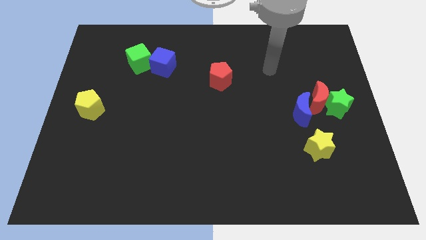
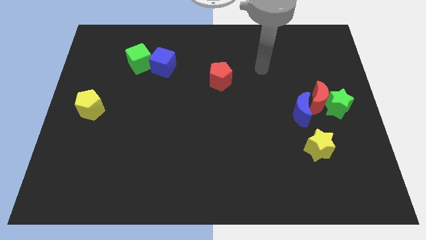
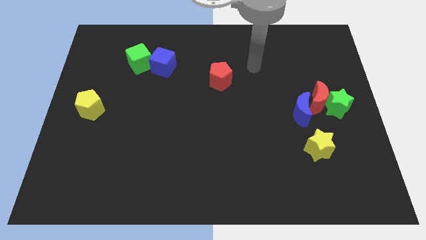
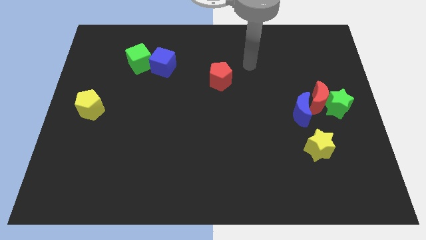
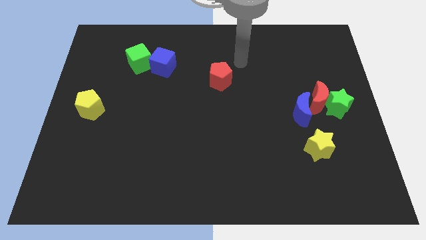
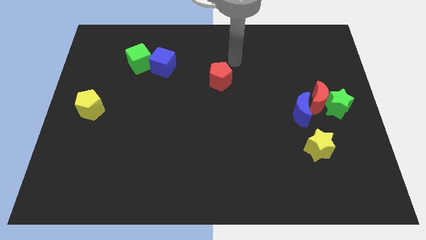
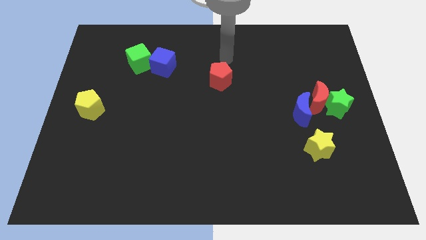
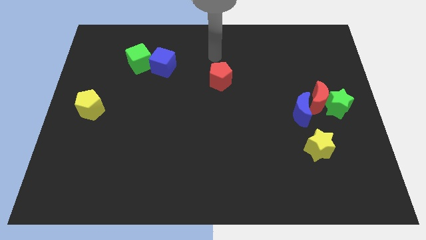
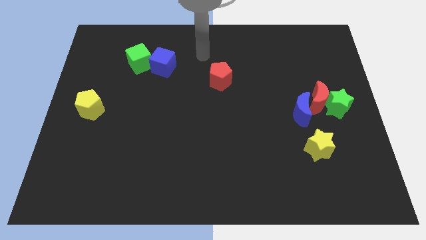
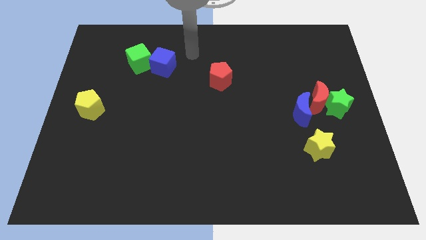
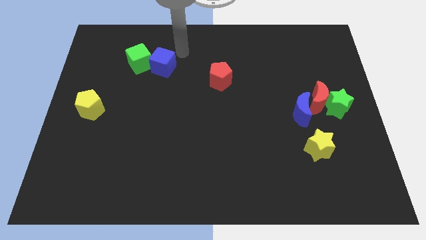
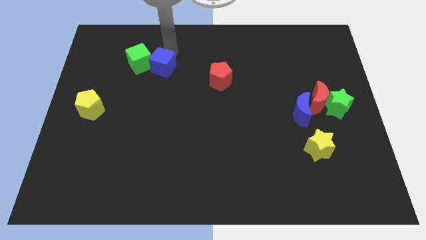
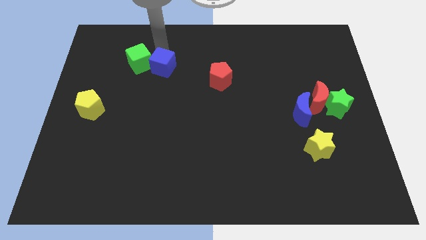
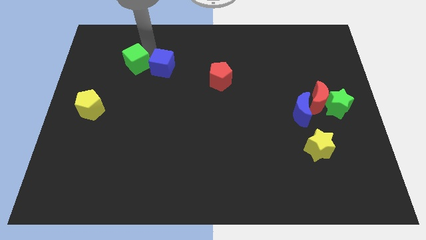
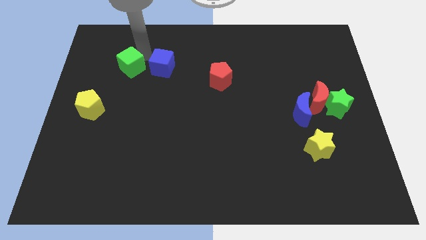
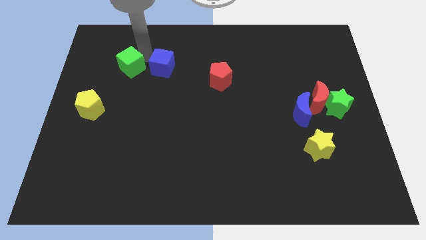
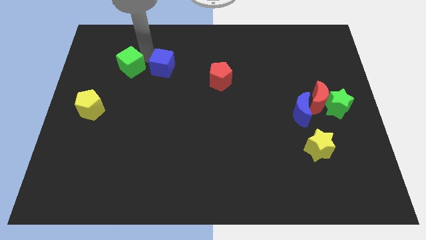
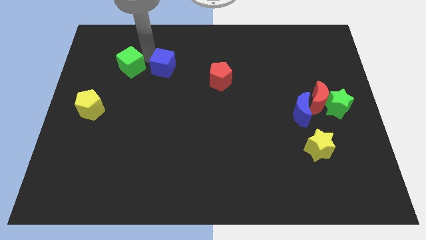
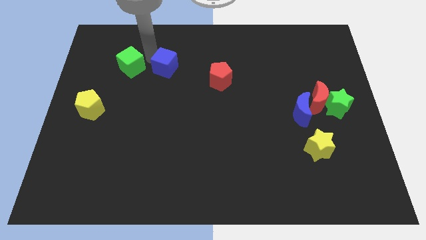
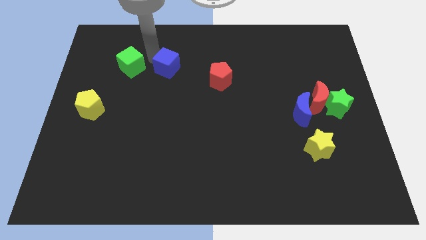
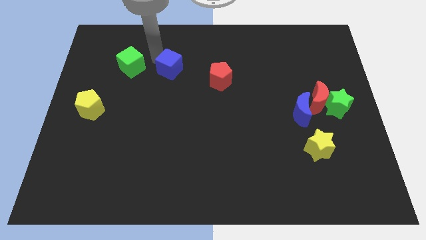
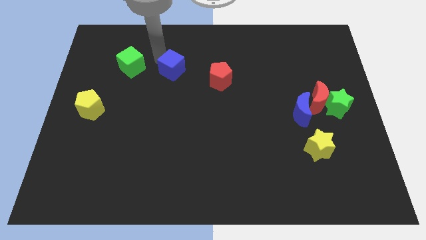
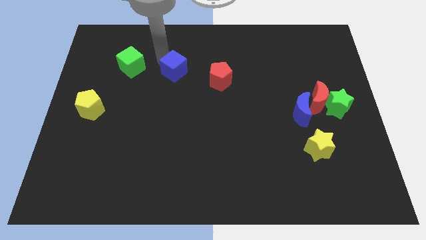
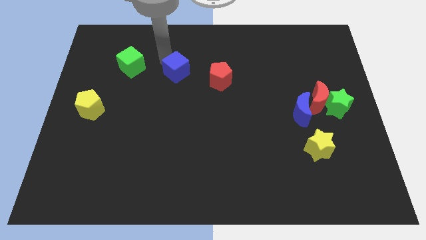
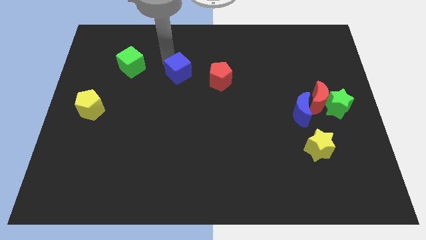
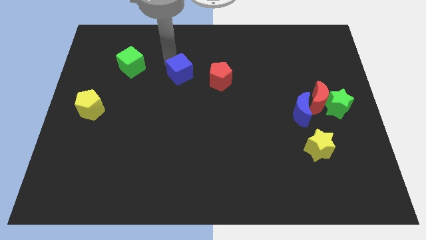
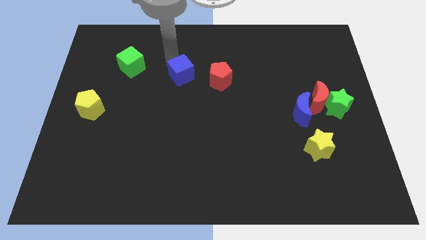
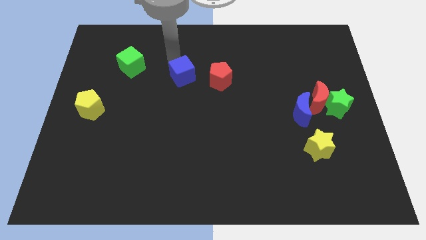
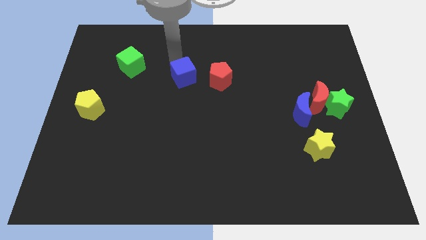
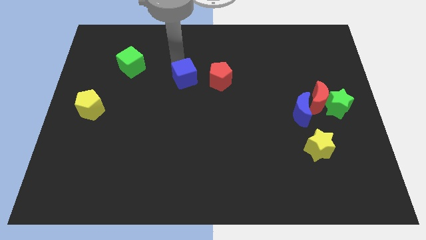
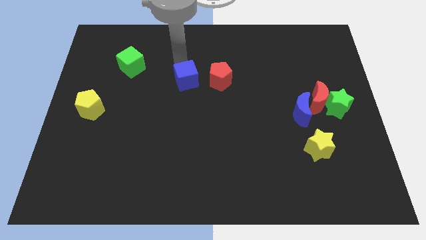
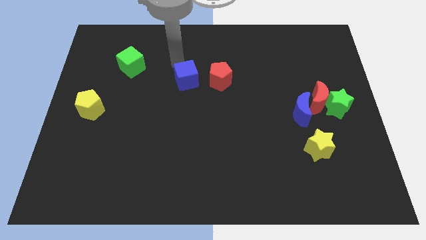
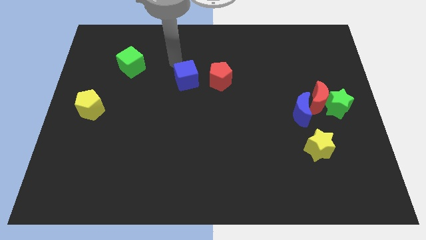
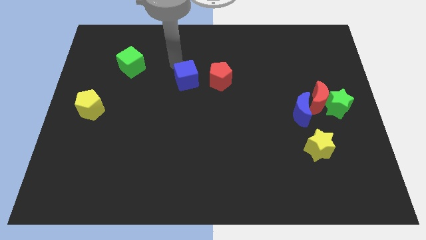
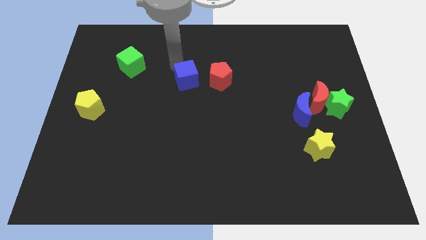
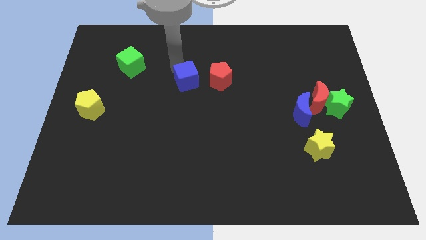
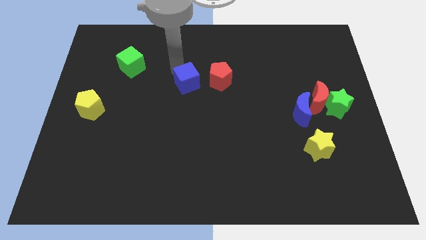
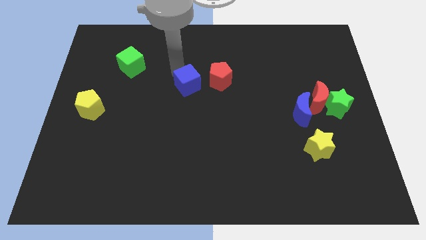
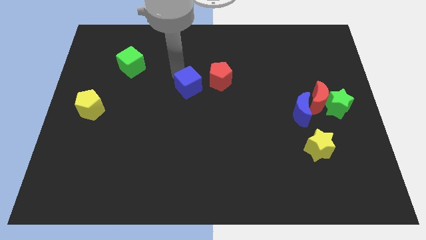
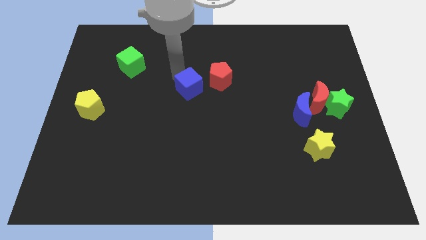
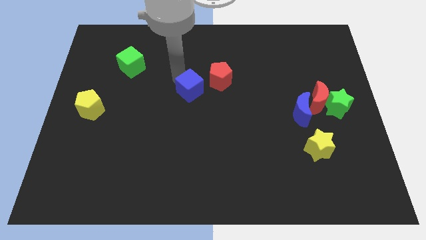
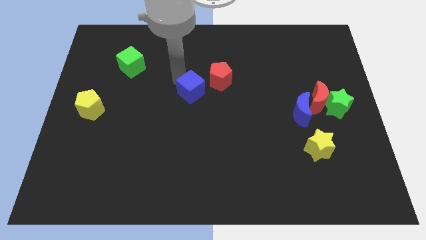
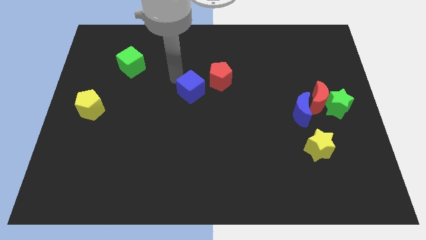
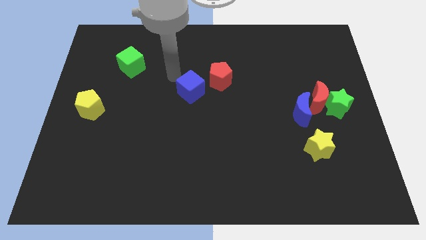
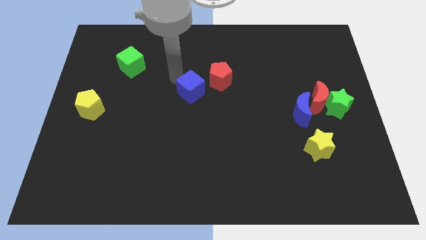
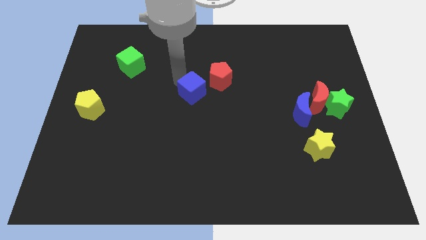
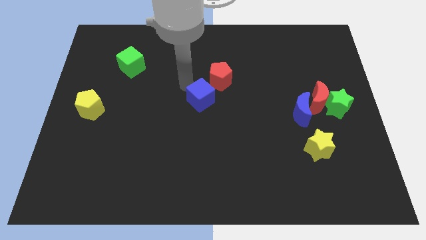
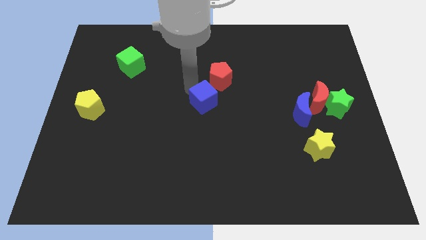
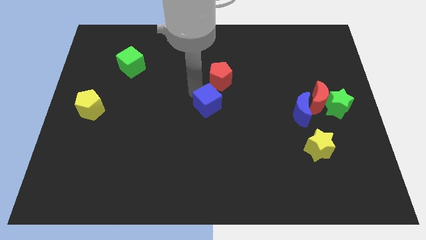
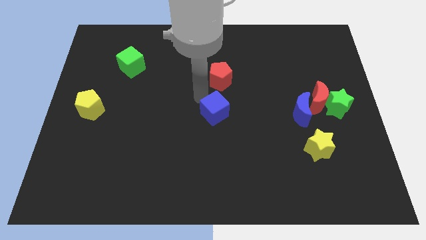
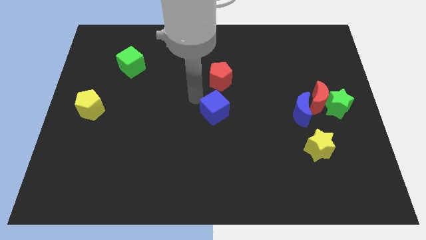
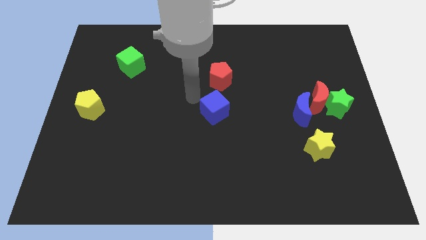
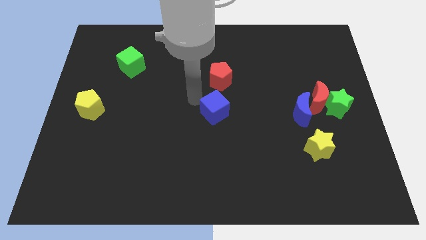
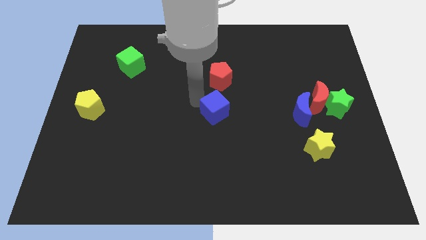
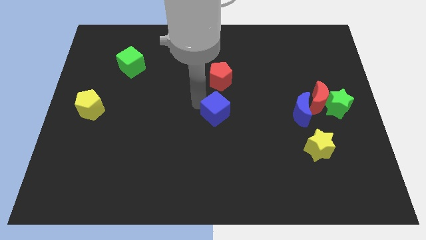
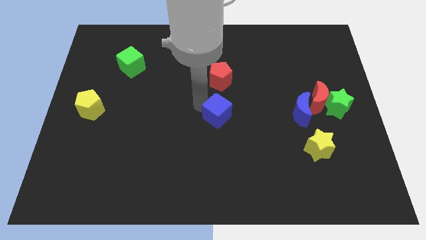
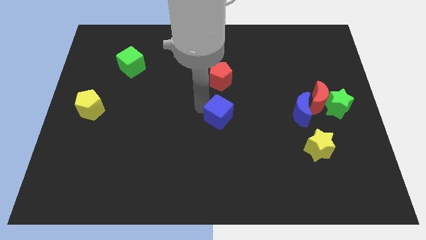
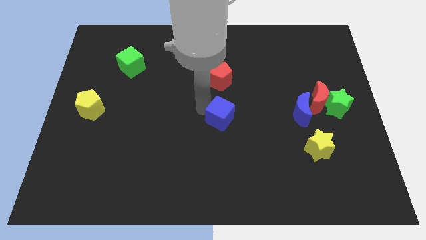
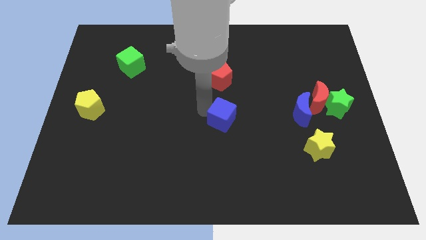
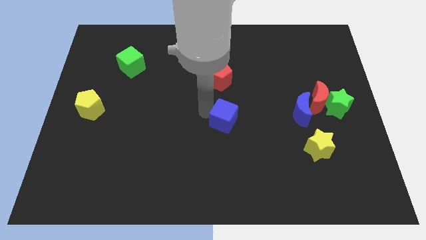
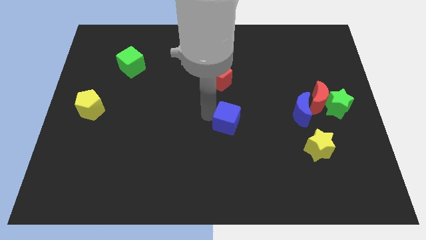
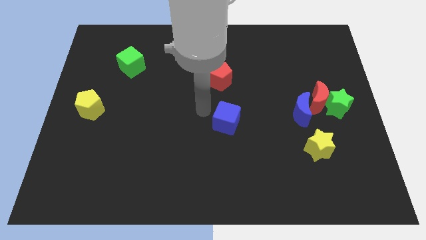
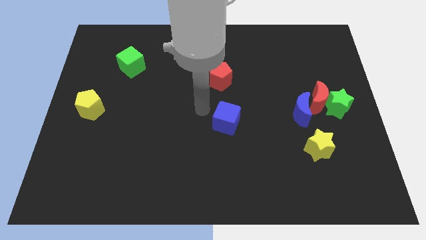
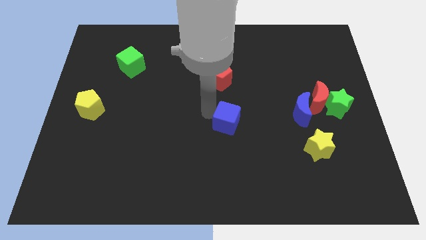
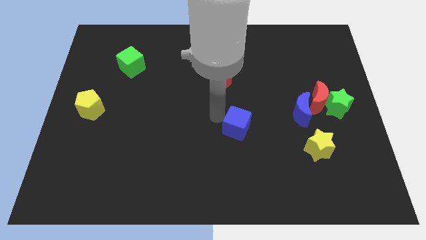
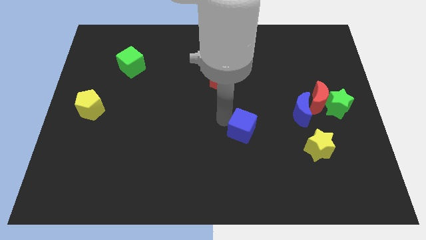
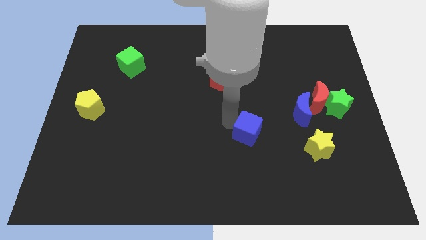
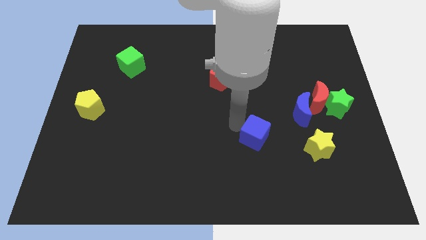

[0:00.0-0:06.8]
push the blue cube to the left of the yellow star
